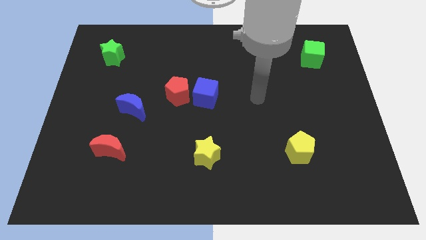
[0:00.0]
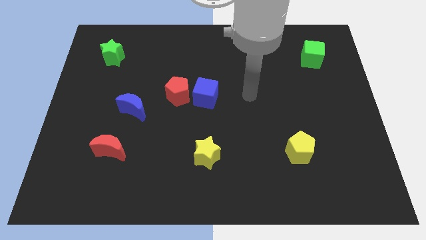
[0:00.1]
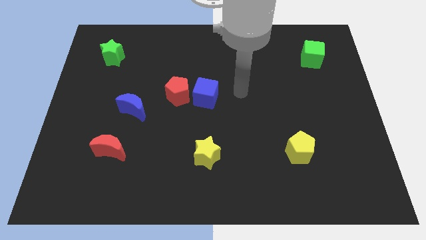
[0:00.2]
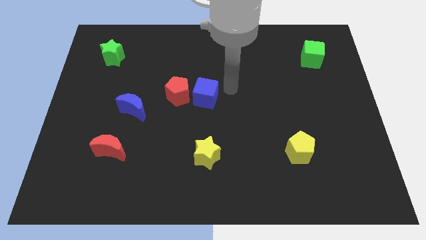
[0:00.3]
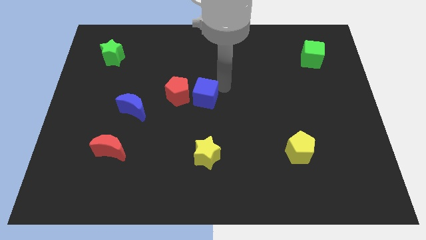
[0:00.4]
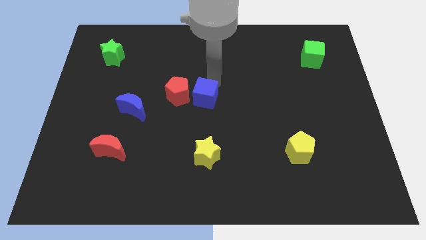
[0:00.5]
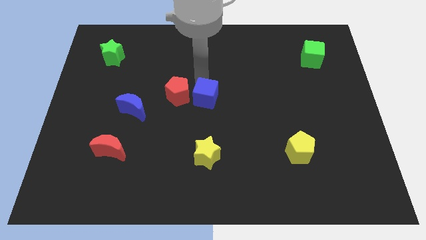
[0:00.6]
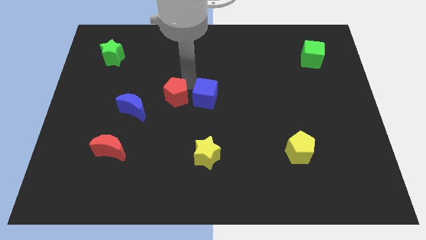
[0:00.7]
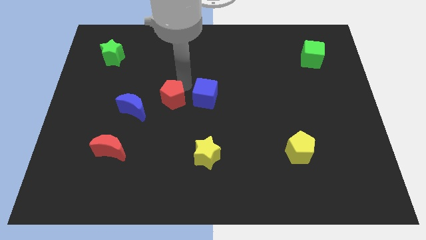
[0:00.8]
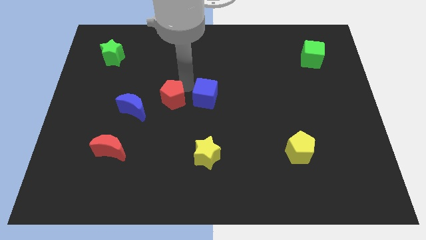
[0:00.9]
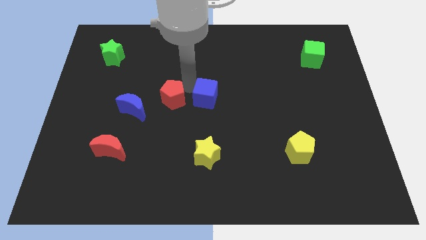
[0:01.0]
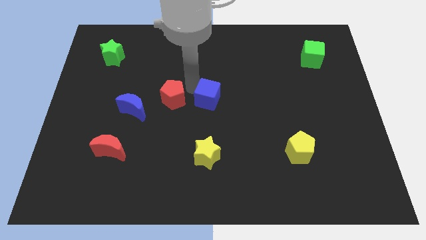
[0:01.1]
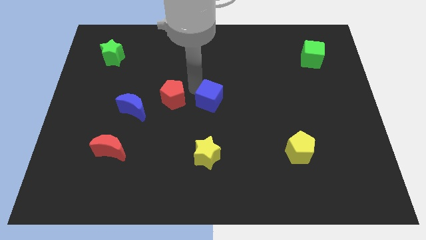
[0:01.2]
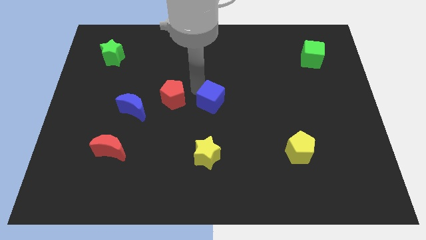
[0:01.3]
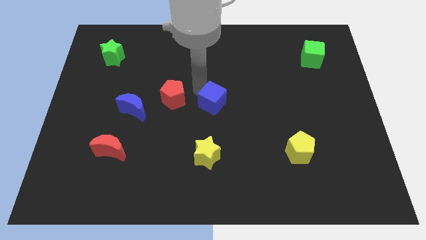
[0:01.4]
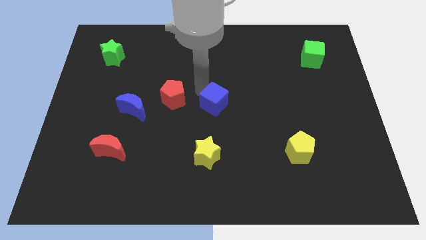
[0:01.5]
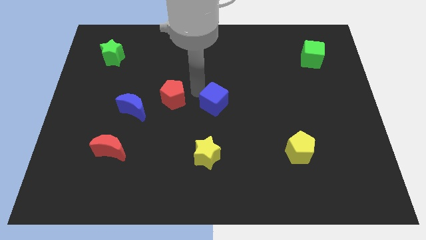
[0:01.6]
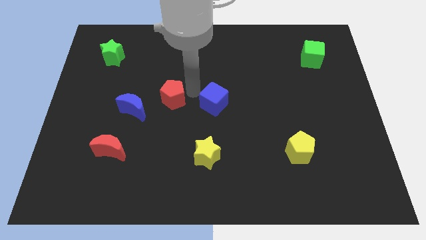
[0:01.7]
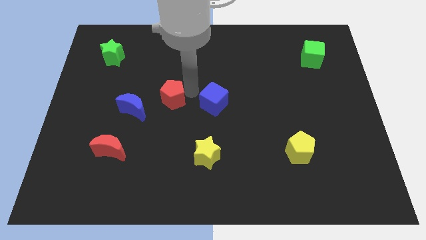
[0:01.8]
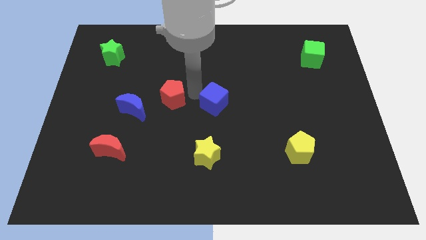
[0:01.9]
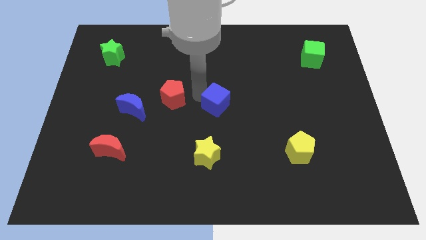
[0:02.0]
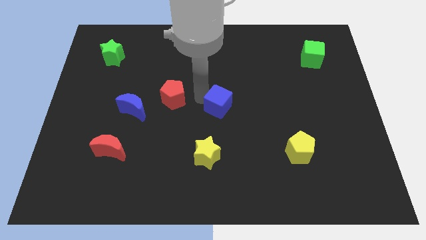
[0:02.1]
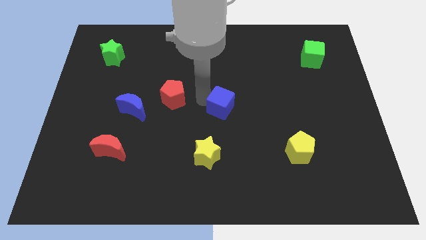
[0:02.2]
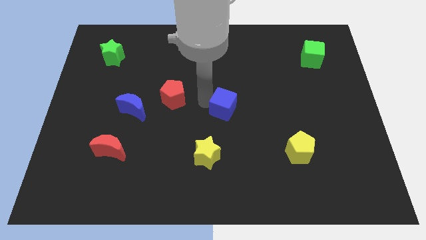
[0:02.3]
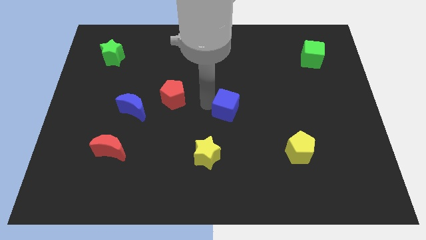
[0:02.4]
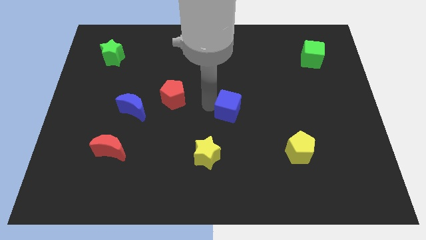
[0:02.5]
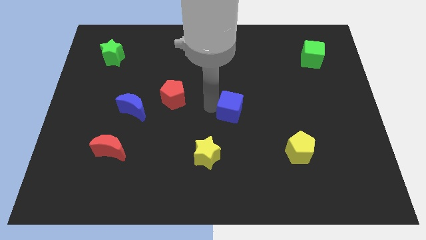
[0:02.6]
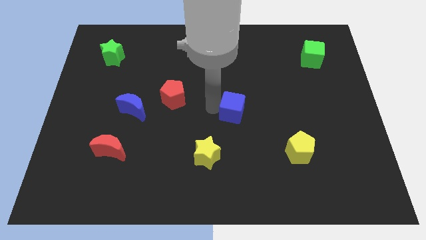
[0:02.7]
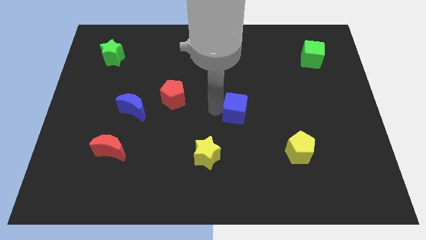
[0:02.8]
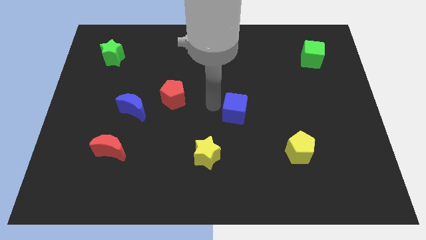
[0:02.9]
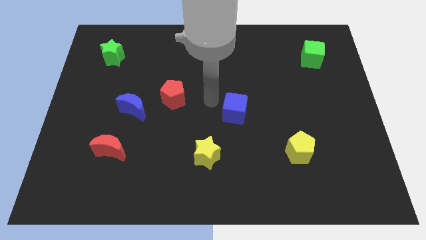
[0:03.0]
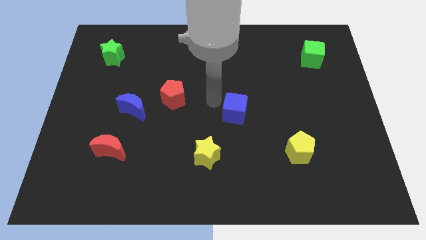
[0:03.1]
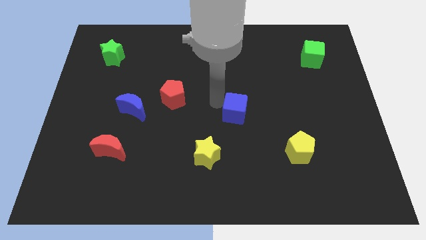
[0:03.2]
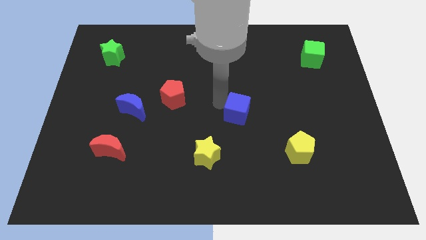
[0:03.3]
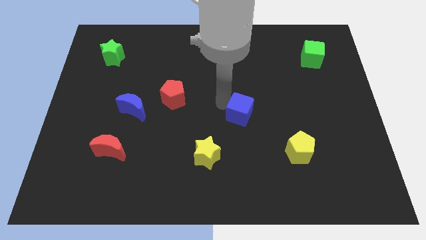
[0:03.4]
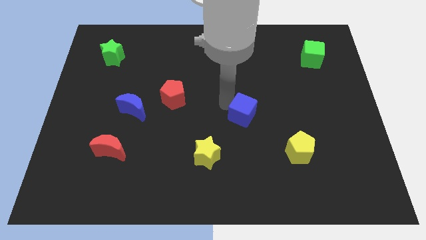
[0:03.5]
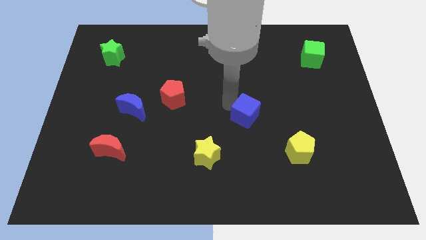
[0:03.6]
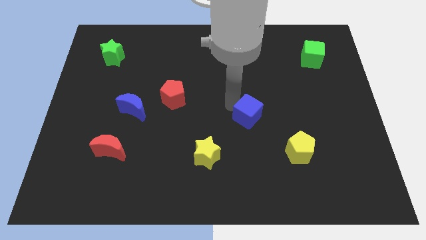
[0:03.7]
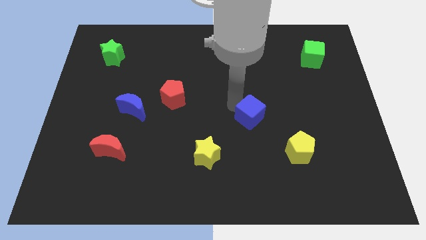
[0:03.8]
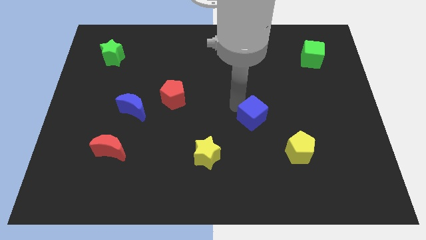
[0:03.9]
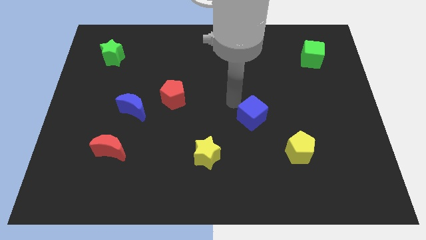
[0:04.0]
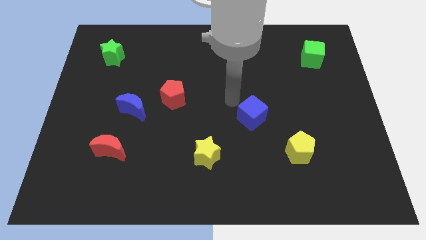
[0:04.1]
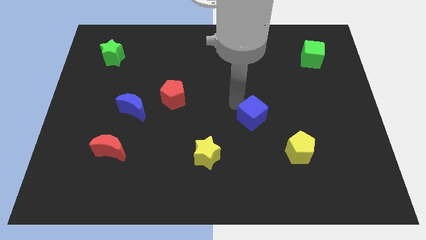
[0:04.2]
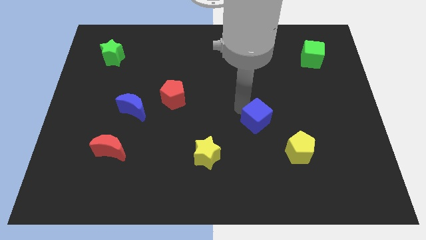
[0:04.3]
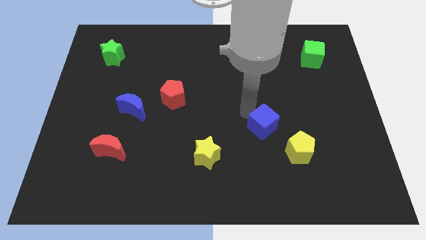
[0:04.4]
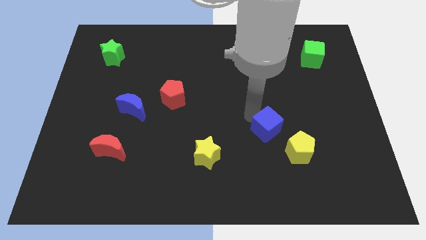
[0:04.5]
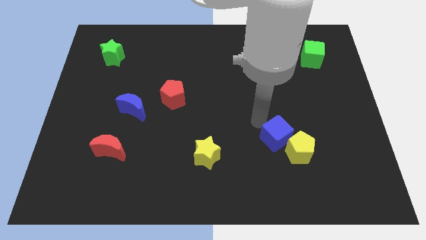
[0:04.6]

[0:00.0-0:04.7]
put the blue cube next to the yellow pentagon

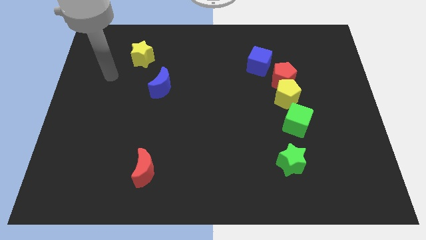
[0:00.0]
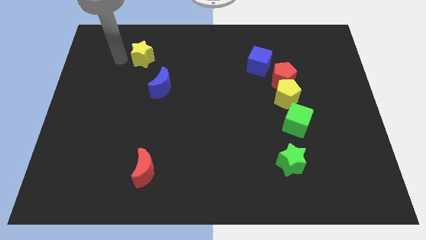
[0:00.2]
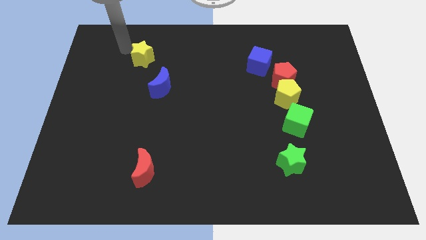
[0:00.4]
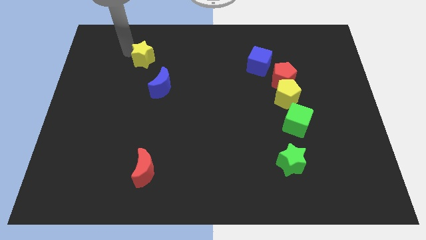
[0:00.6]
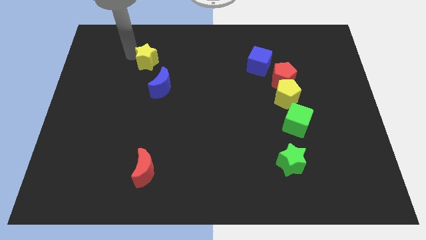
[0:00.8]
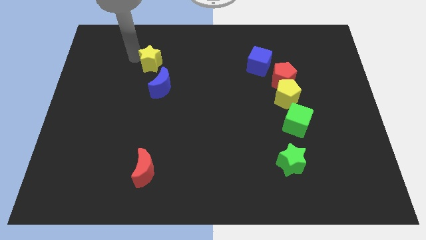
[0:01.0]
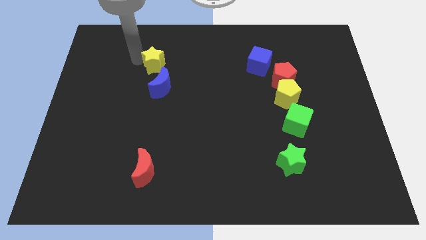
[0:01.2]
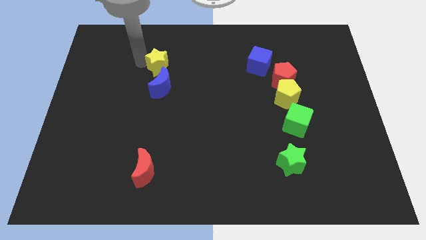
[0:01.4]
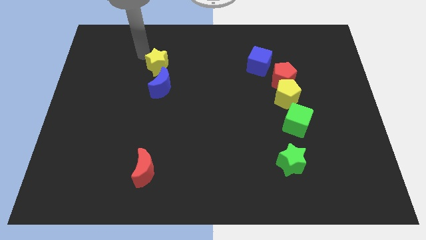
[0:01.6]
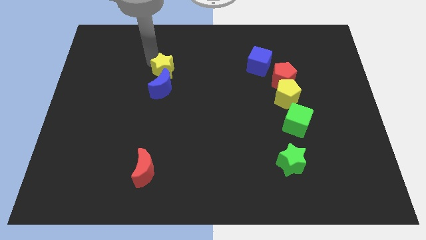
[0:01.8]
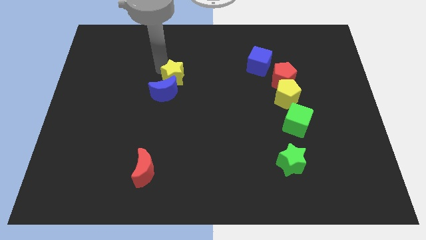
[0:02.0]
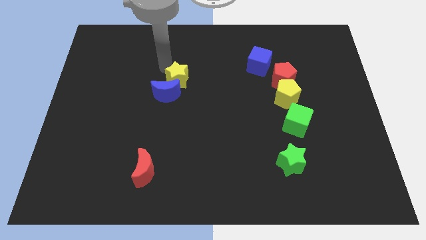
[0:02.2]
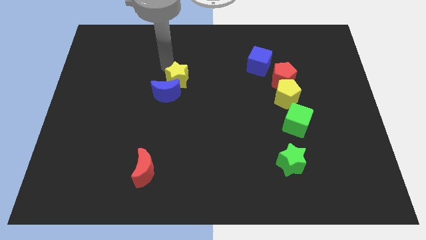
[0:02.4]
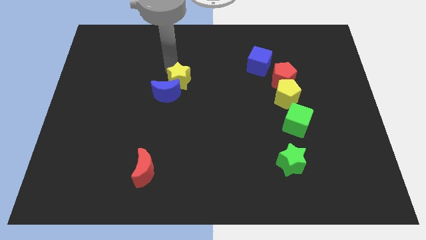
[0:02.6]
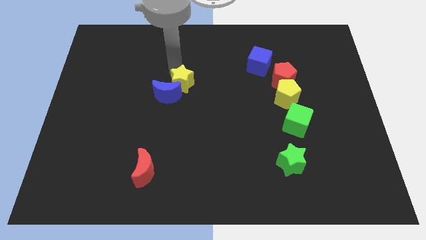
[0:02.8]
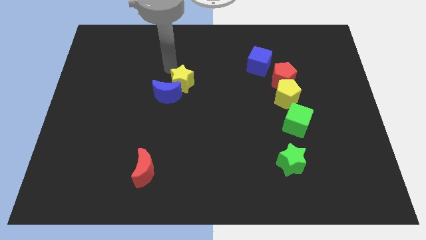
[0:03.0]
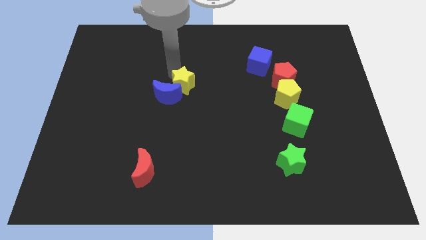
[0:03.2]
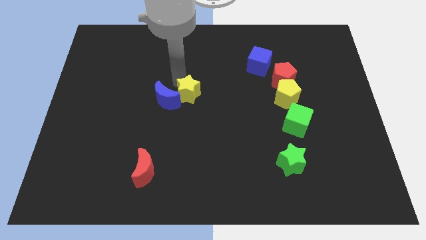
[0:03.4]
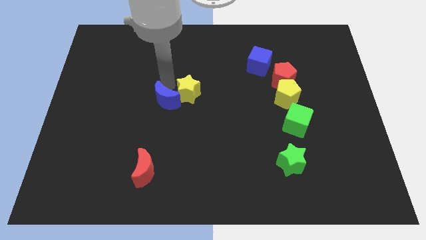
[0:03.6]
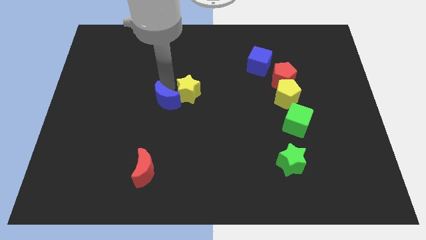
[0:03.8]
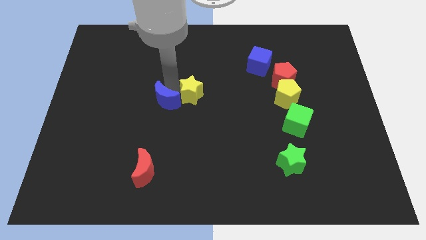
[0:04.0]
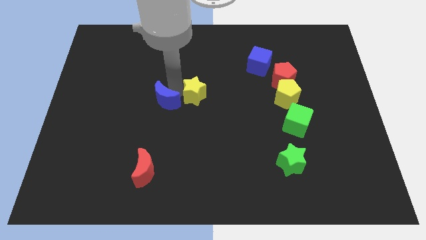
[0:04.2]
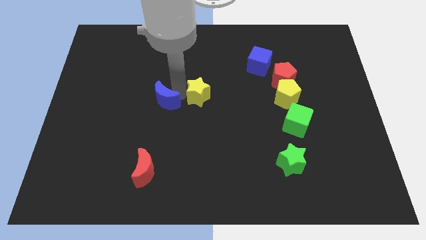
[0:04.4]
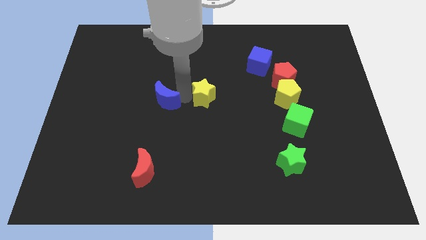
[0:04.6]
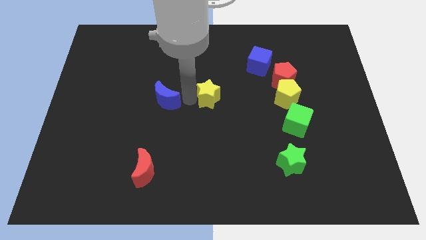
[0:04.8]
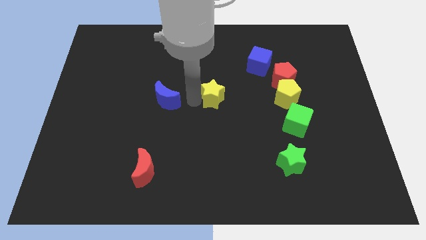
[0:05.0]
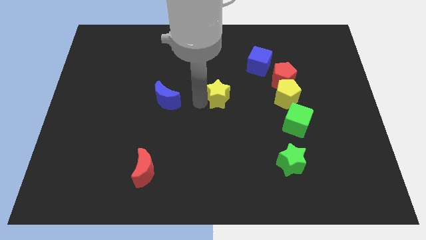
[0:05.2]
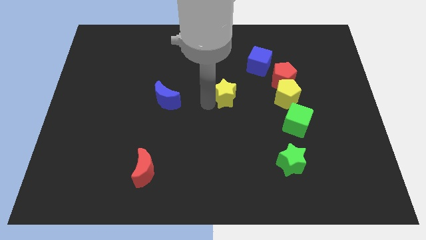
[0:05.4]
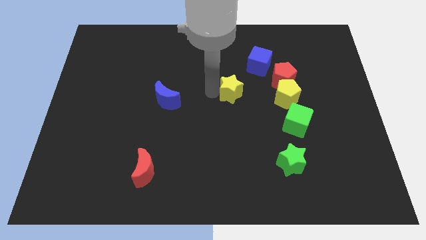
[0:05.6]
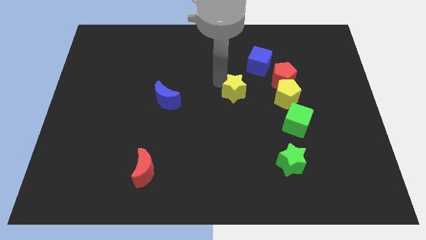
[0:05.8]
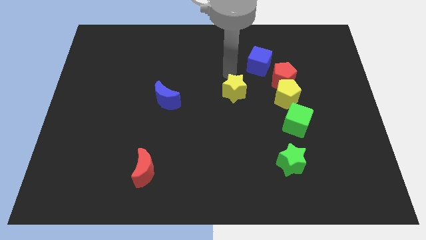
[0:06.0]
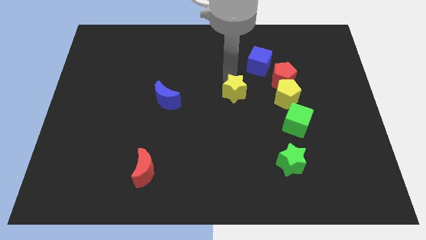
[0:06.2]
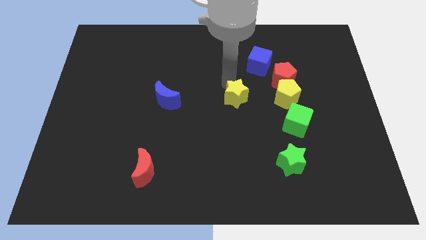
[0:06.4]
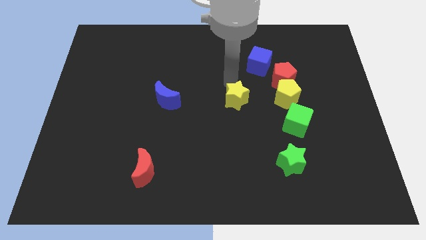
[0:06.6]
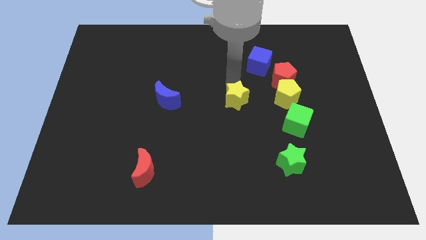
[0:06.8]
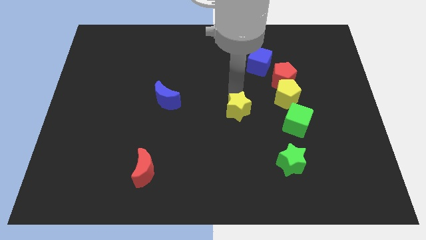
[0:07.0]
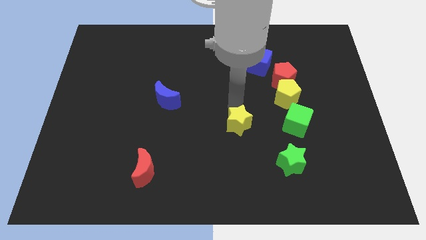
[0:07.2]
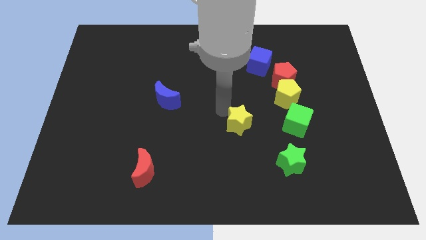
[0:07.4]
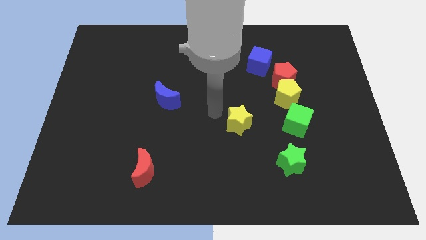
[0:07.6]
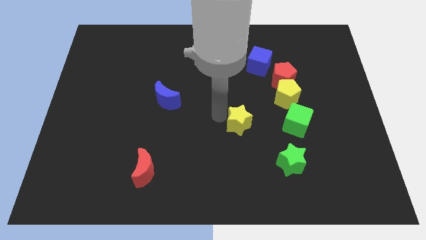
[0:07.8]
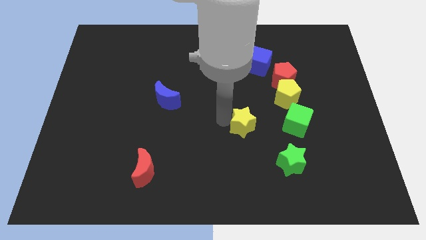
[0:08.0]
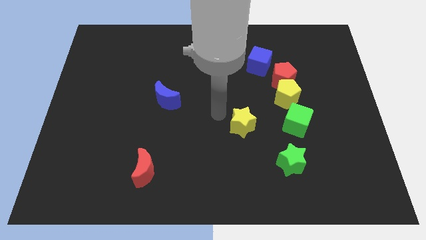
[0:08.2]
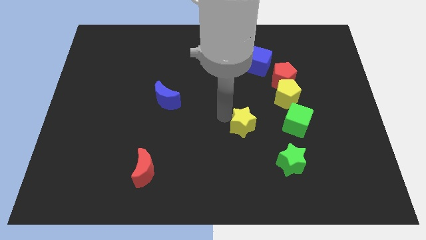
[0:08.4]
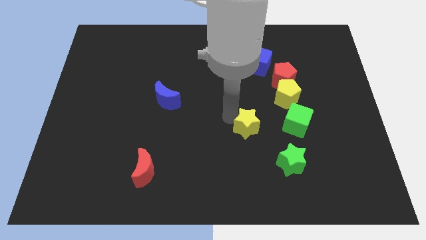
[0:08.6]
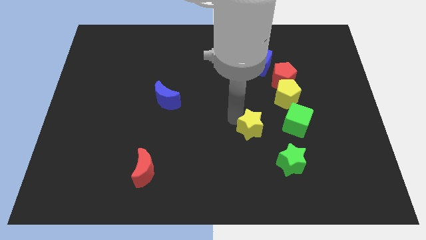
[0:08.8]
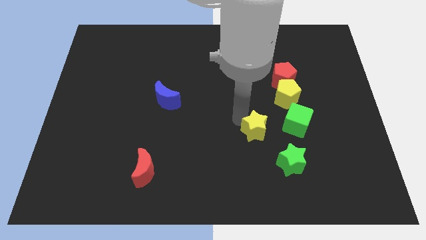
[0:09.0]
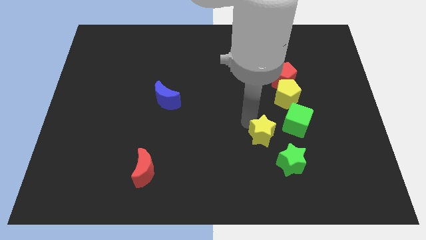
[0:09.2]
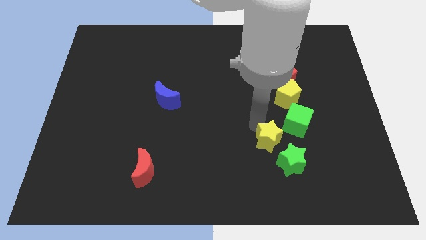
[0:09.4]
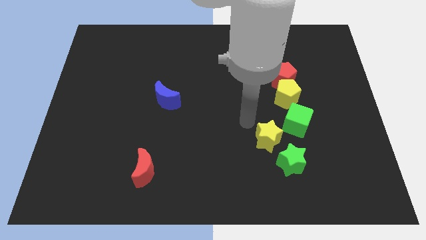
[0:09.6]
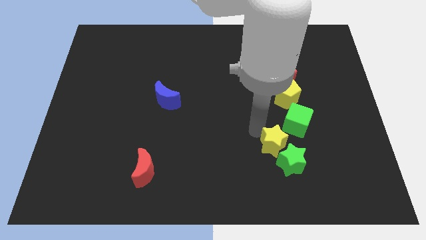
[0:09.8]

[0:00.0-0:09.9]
push the yellow star close to the green star
